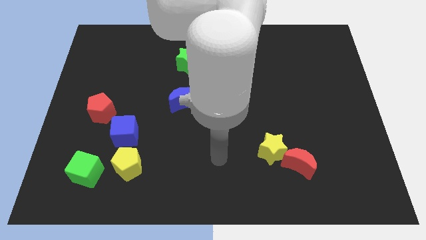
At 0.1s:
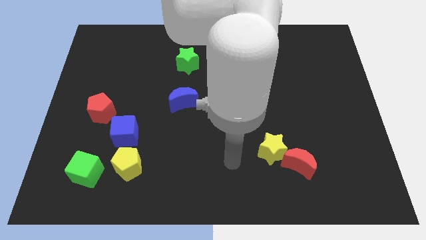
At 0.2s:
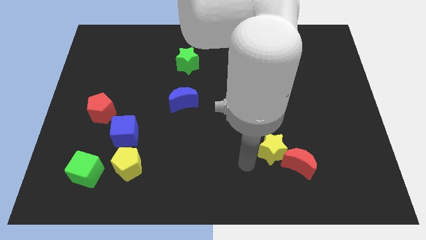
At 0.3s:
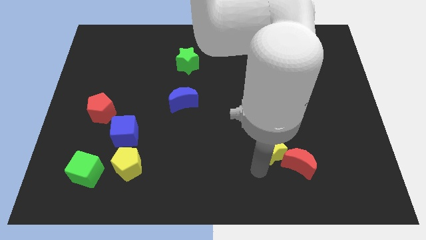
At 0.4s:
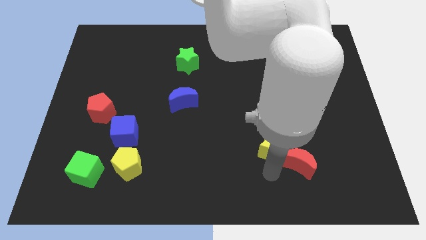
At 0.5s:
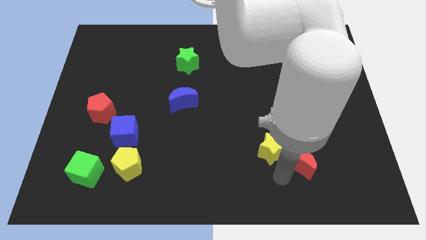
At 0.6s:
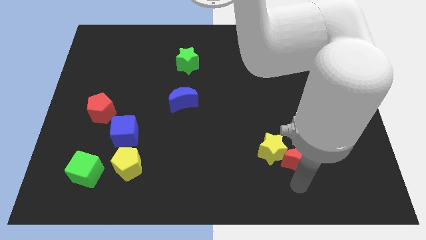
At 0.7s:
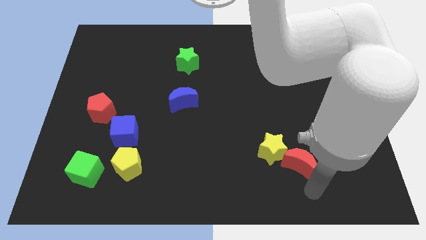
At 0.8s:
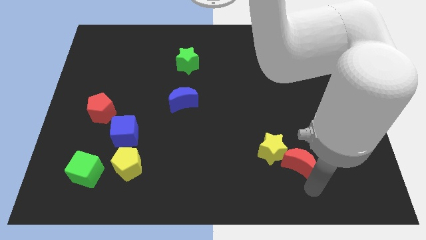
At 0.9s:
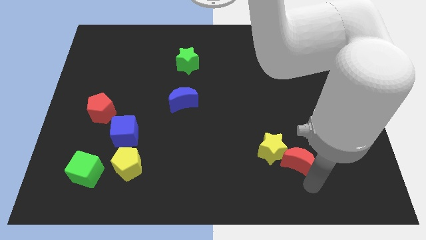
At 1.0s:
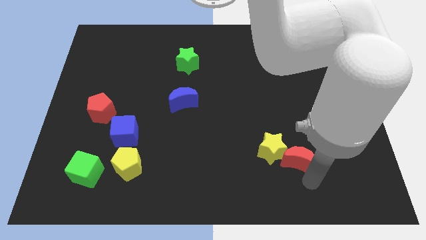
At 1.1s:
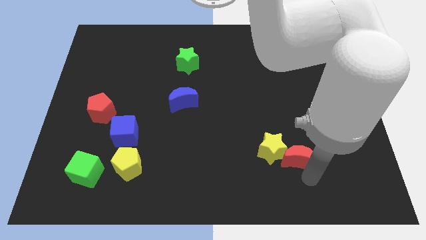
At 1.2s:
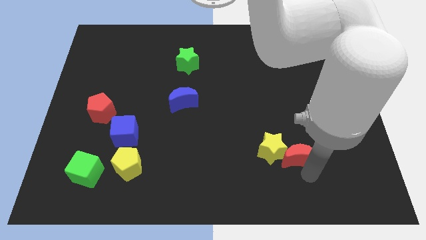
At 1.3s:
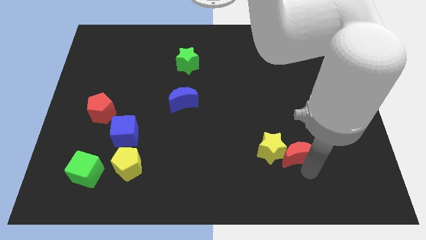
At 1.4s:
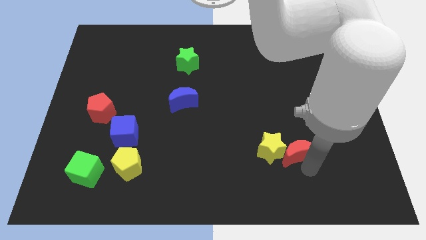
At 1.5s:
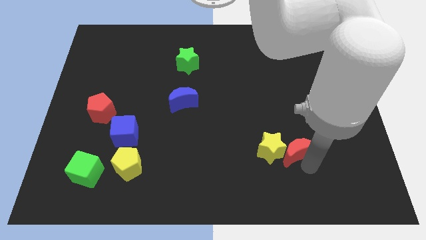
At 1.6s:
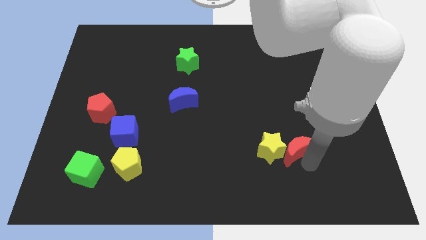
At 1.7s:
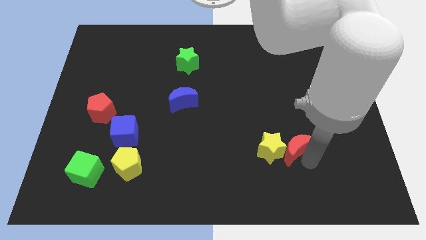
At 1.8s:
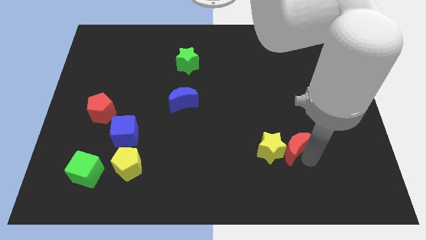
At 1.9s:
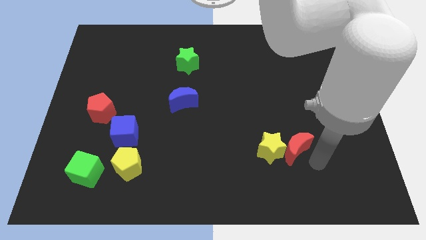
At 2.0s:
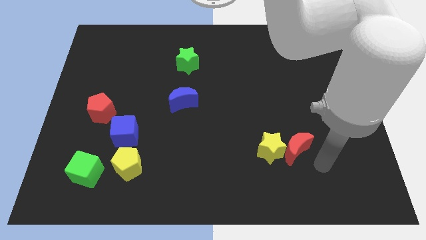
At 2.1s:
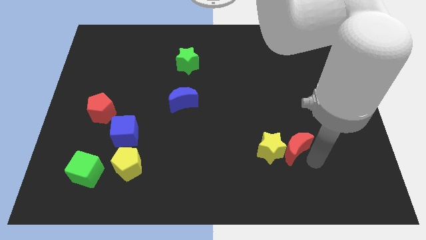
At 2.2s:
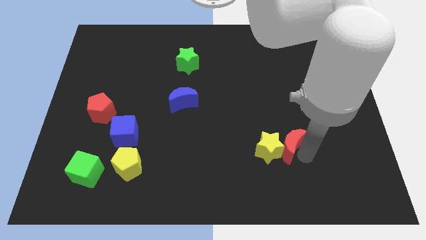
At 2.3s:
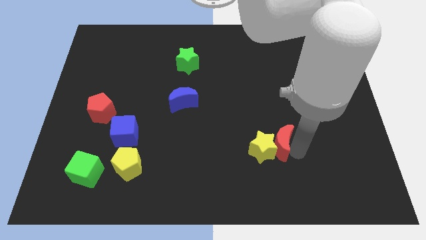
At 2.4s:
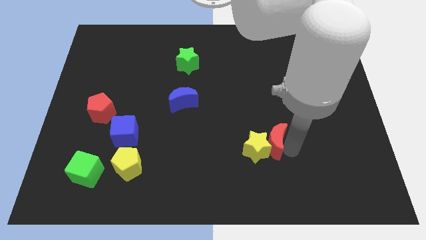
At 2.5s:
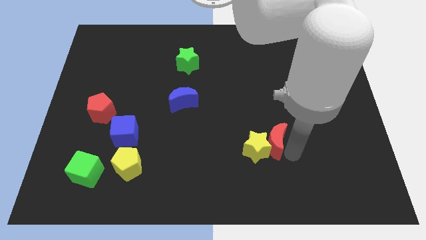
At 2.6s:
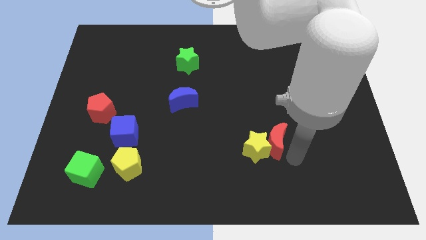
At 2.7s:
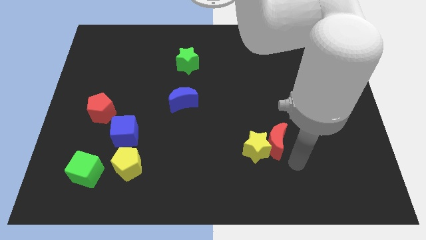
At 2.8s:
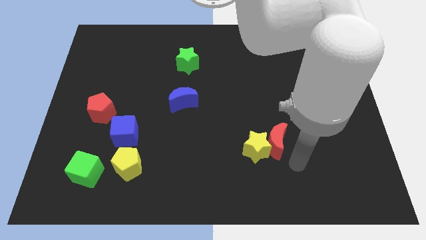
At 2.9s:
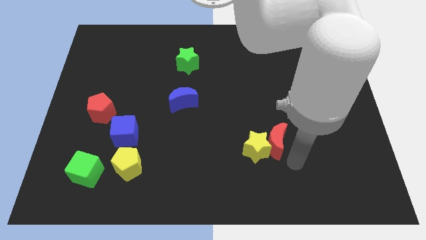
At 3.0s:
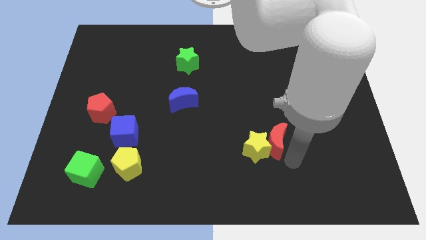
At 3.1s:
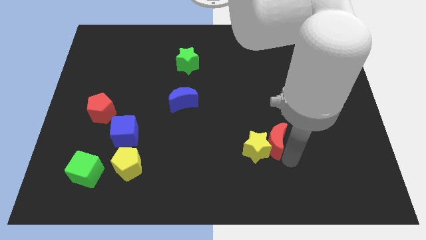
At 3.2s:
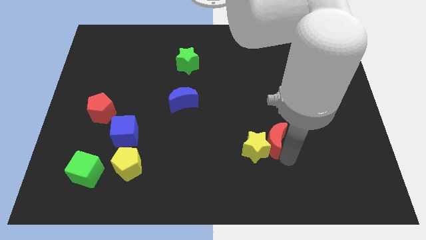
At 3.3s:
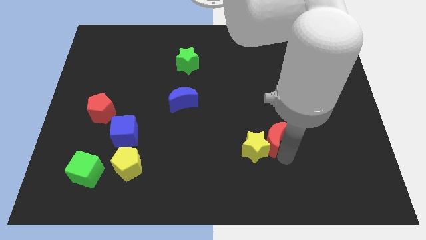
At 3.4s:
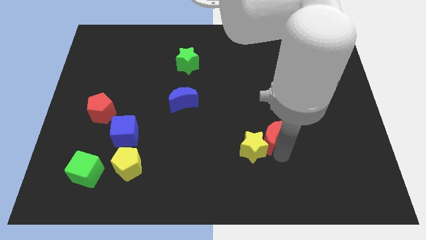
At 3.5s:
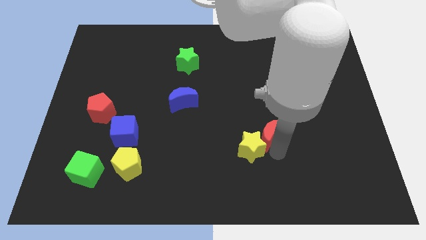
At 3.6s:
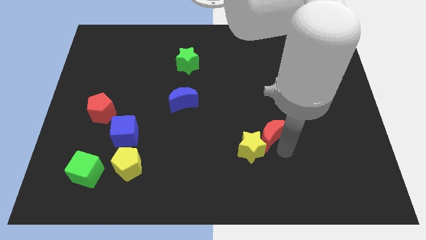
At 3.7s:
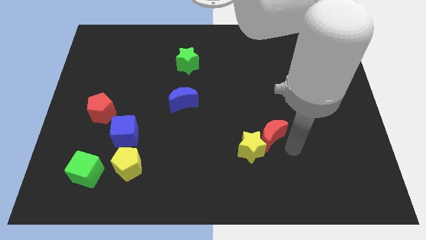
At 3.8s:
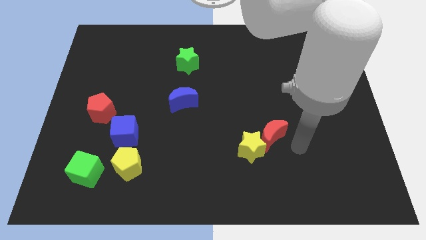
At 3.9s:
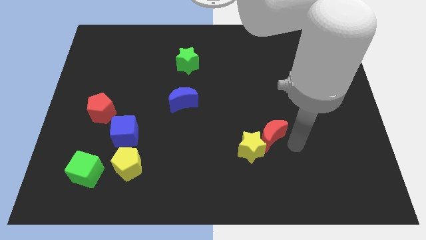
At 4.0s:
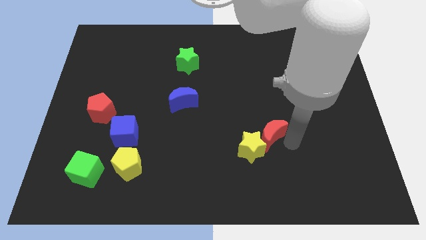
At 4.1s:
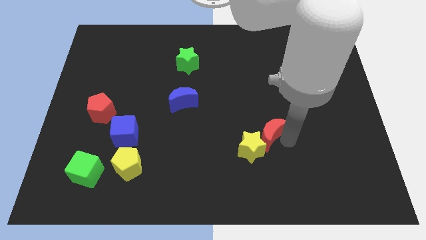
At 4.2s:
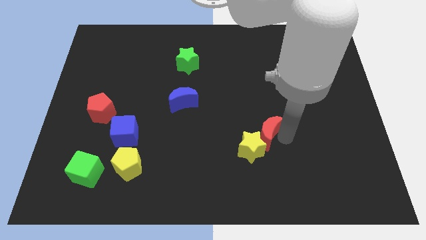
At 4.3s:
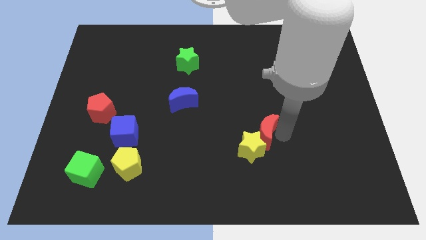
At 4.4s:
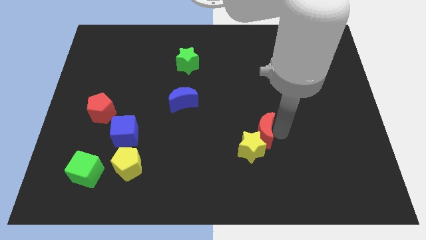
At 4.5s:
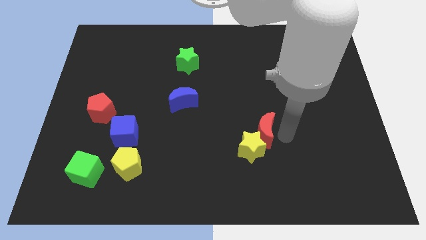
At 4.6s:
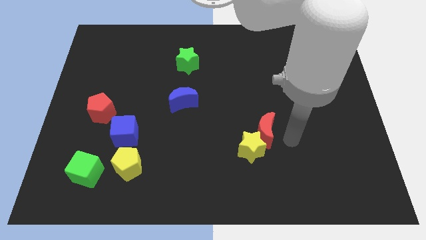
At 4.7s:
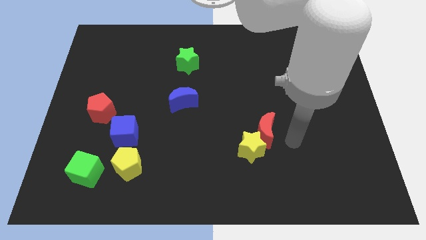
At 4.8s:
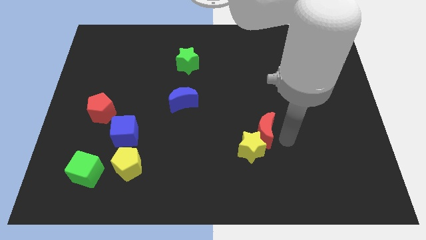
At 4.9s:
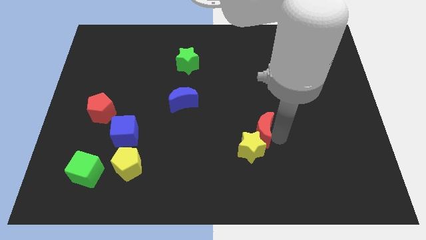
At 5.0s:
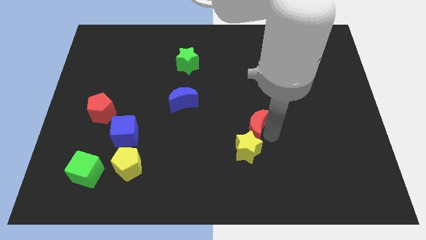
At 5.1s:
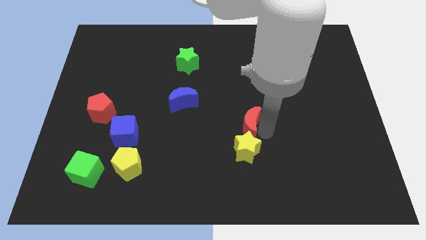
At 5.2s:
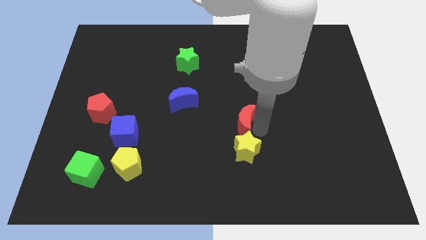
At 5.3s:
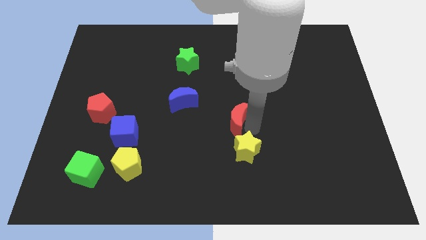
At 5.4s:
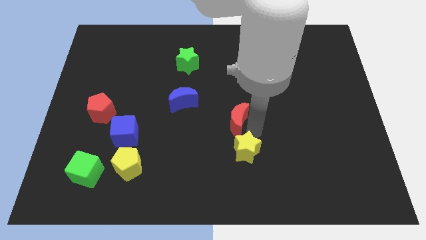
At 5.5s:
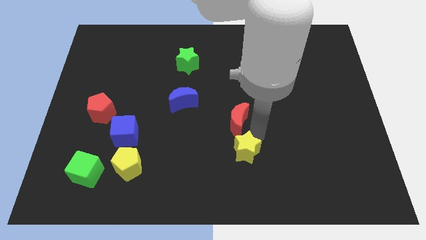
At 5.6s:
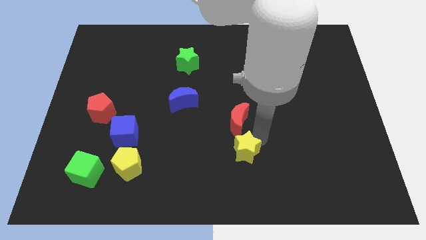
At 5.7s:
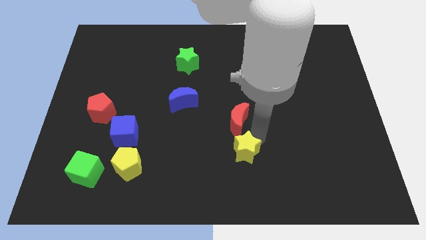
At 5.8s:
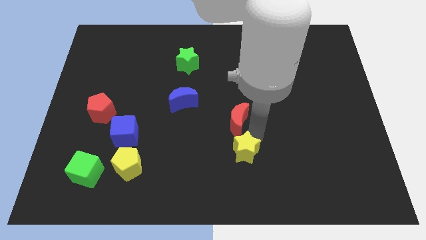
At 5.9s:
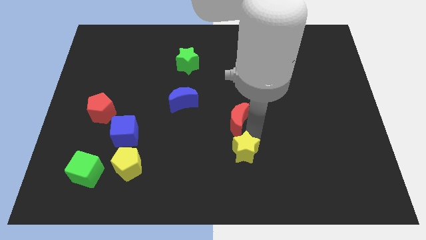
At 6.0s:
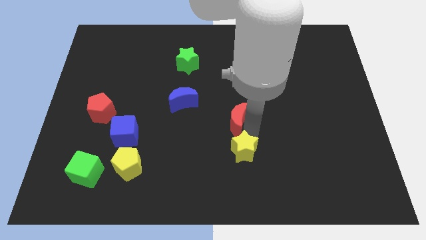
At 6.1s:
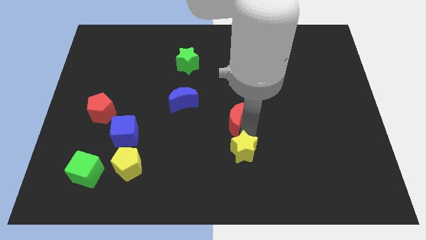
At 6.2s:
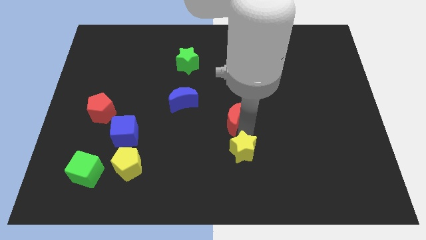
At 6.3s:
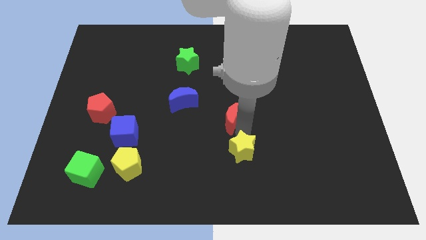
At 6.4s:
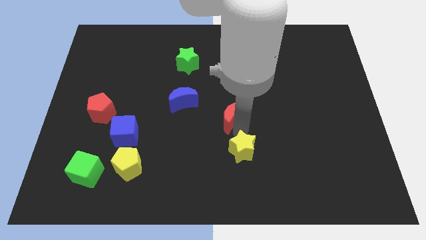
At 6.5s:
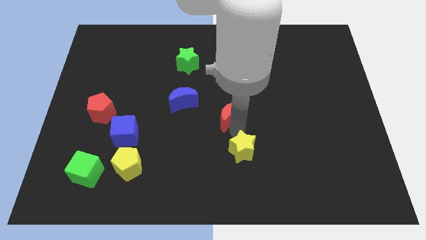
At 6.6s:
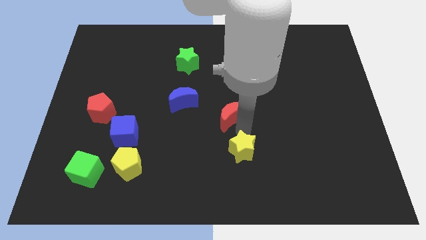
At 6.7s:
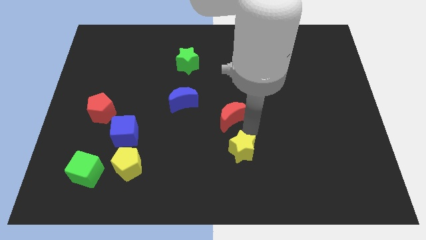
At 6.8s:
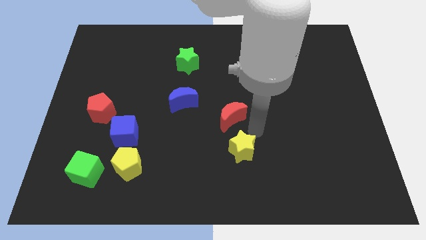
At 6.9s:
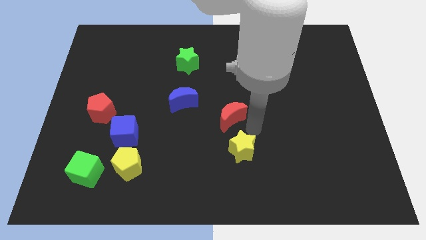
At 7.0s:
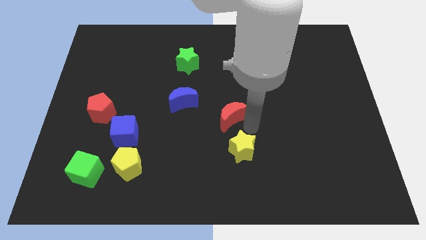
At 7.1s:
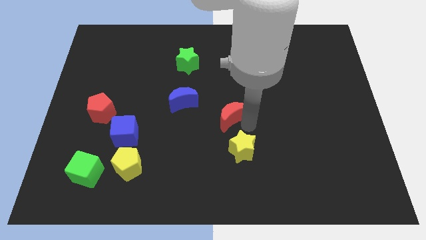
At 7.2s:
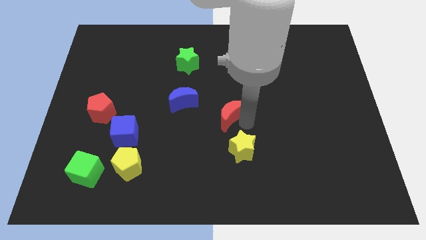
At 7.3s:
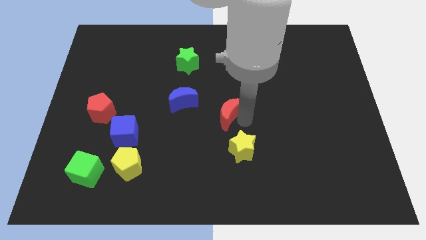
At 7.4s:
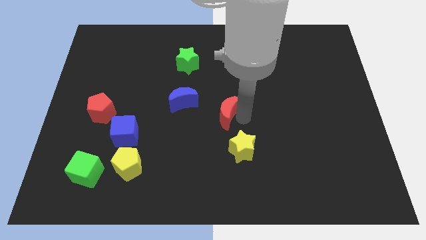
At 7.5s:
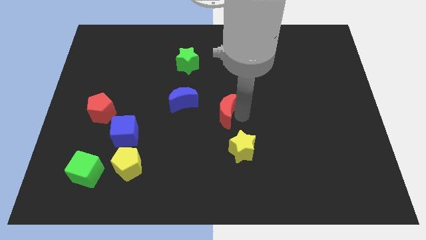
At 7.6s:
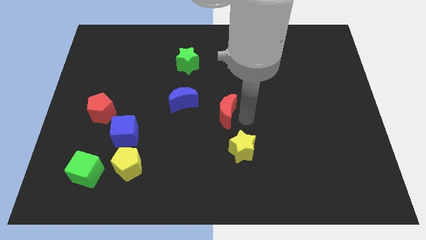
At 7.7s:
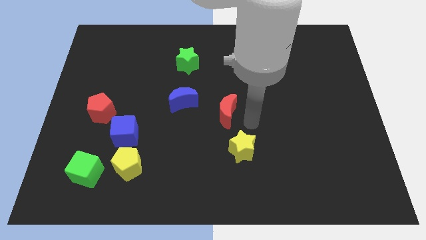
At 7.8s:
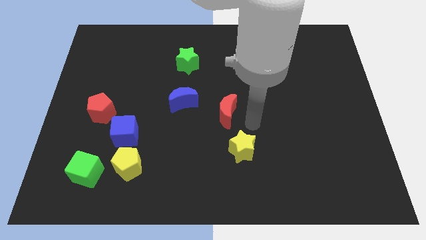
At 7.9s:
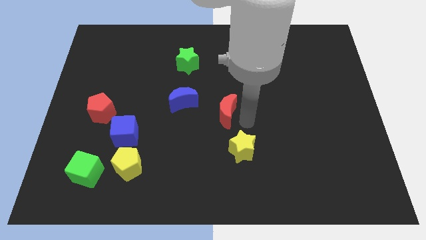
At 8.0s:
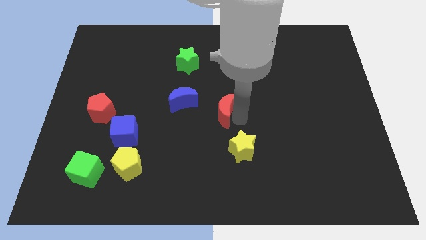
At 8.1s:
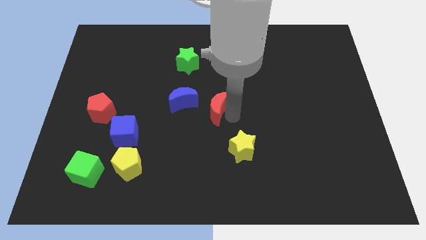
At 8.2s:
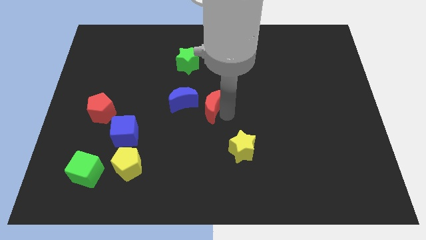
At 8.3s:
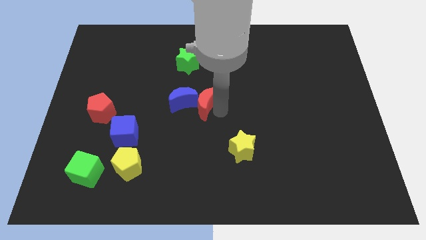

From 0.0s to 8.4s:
slide the red moon close to the blue moon
